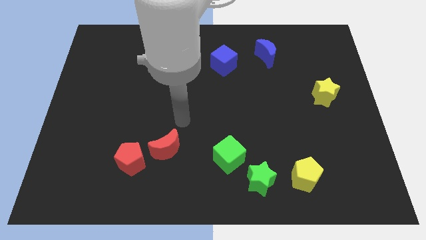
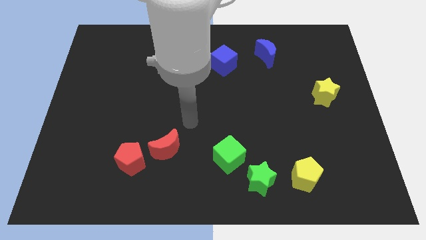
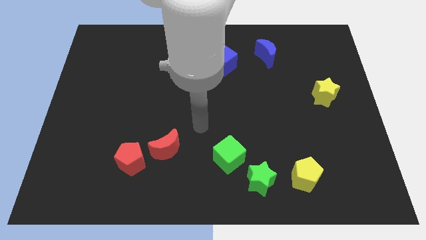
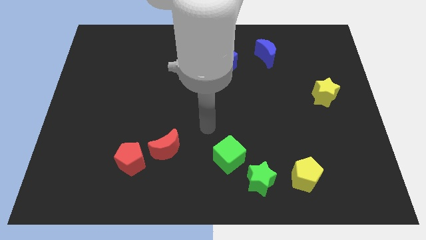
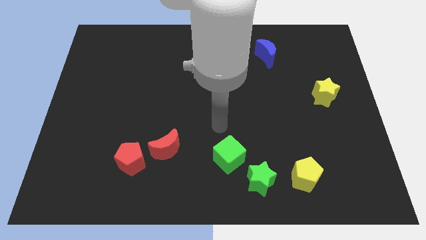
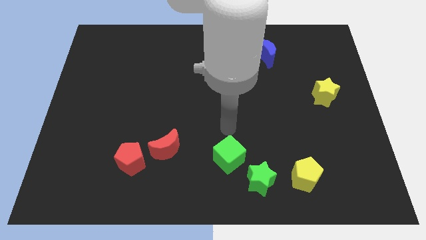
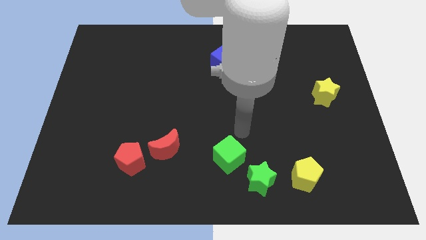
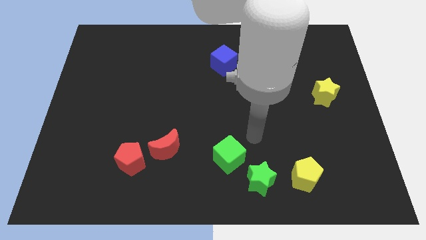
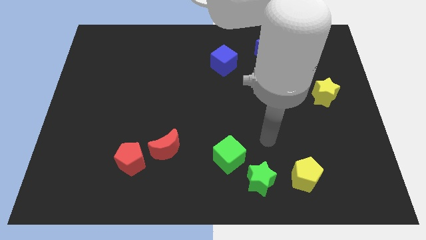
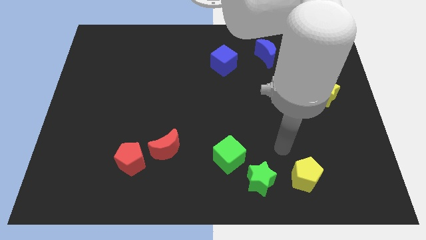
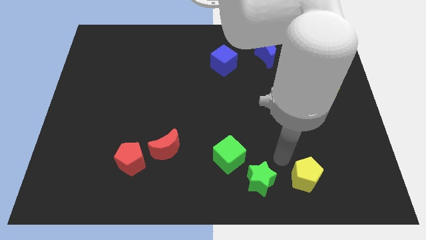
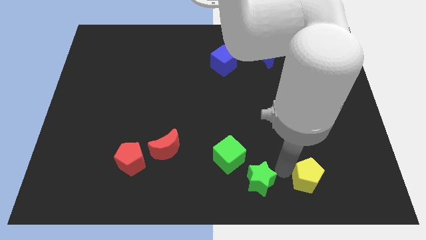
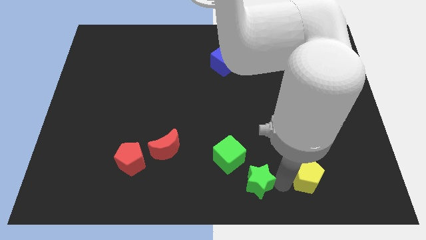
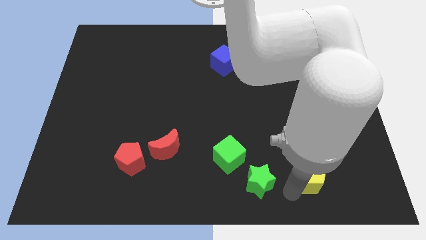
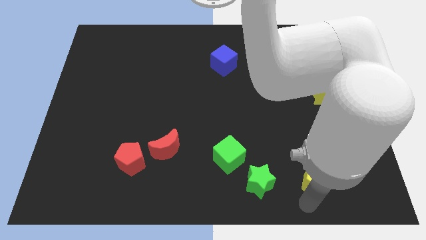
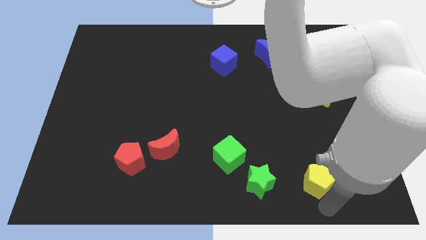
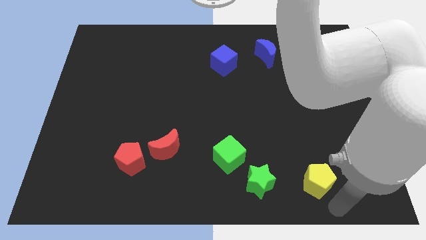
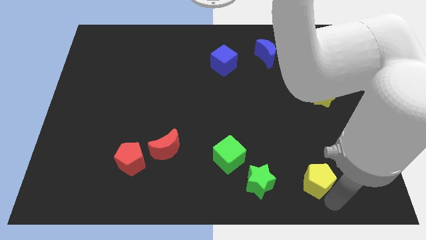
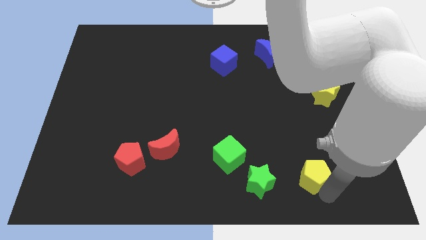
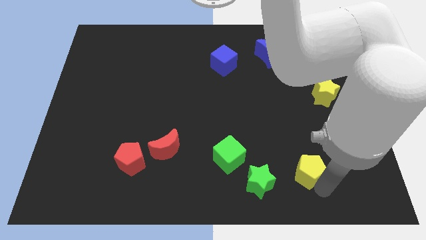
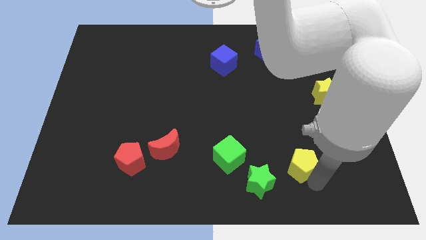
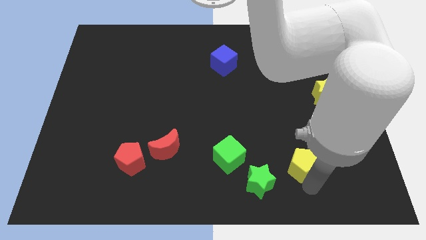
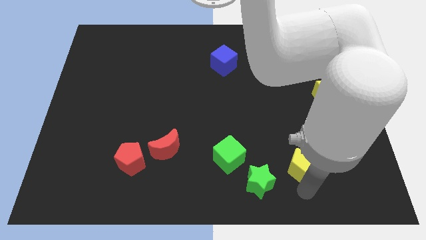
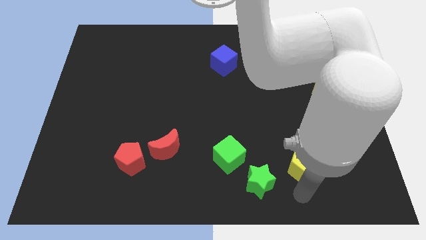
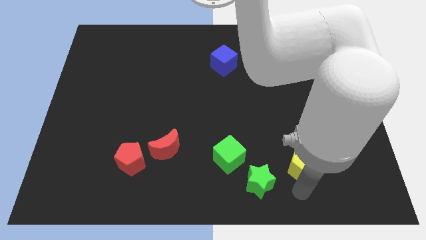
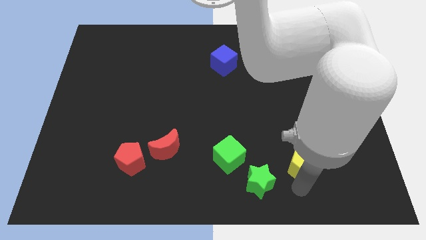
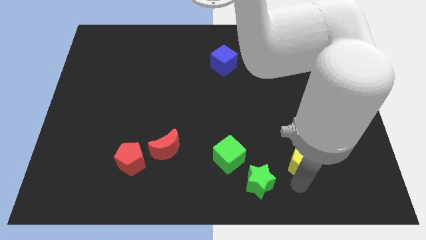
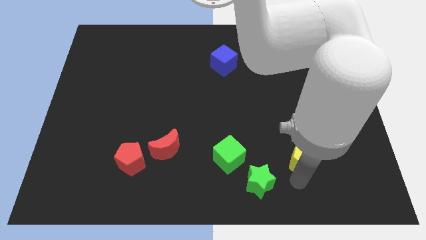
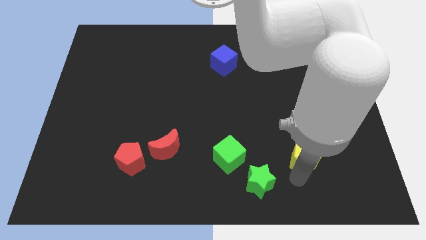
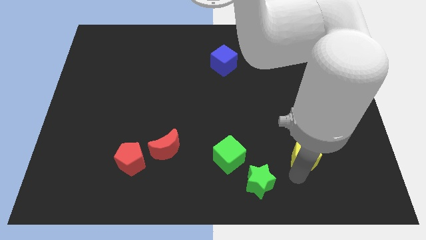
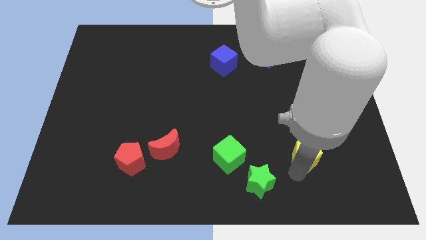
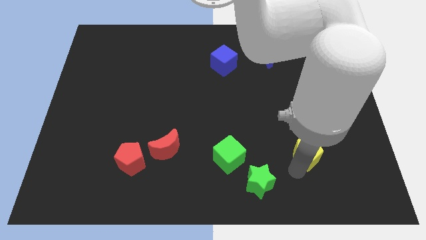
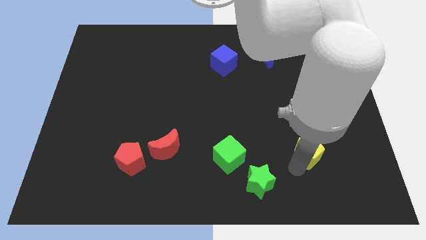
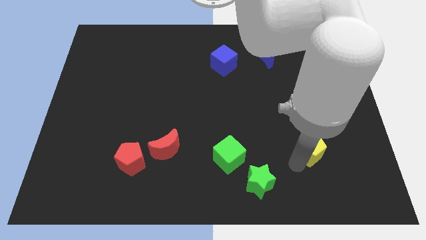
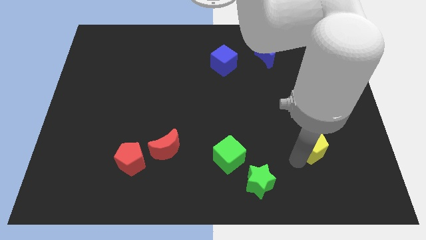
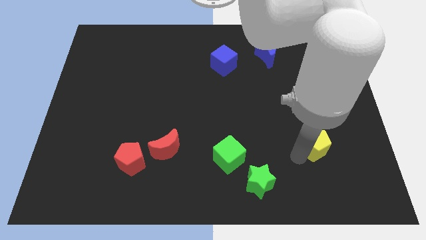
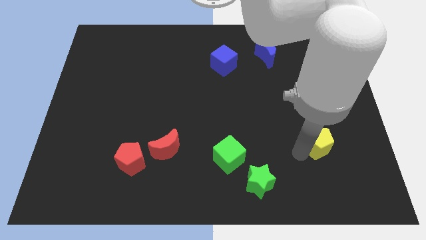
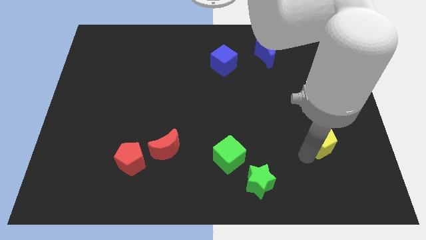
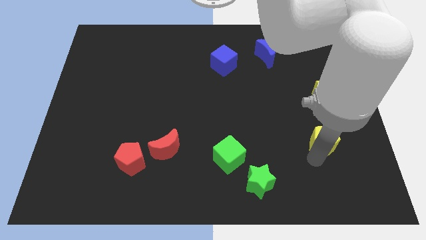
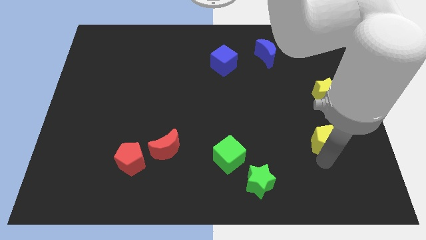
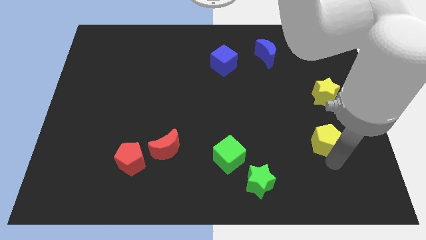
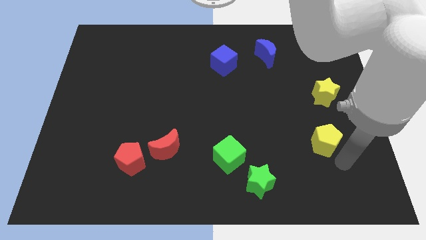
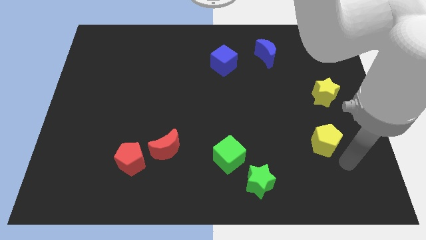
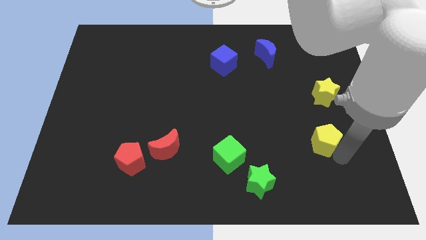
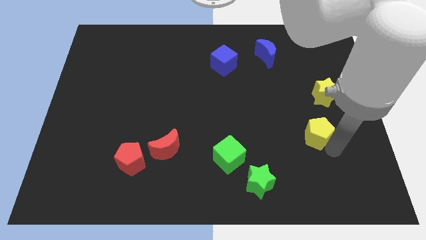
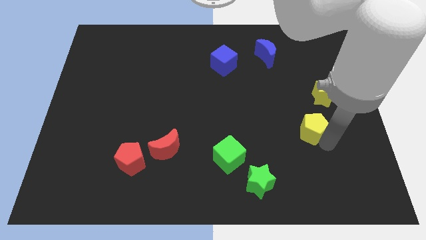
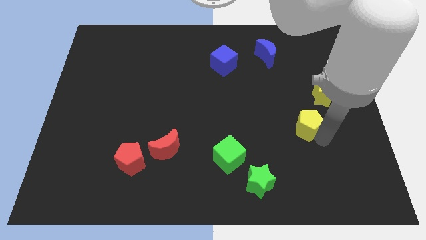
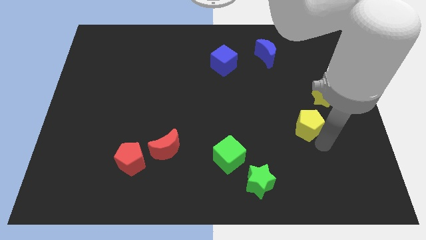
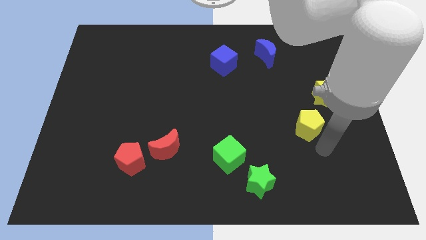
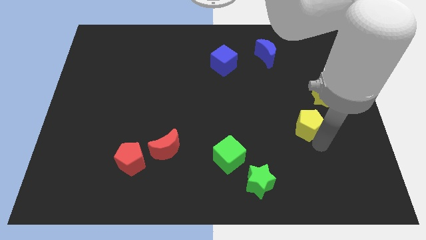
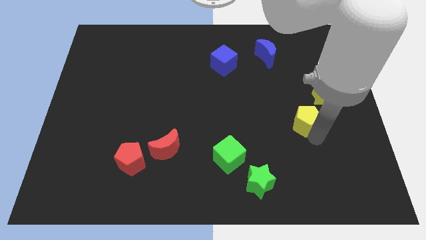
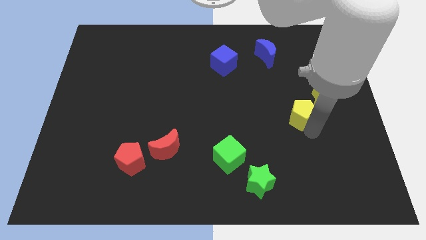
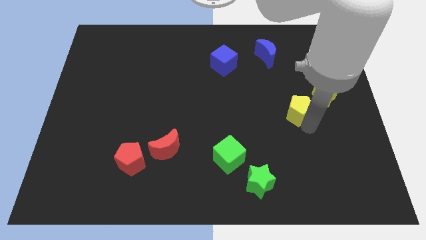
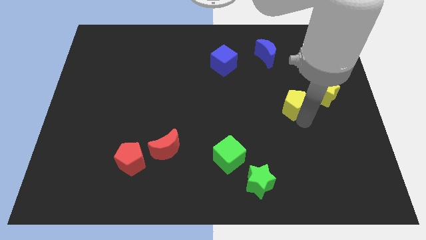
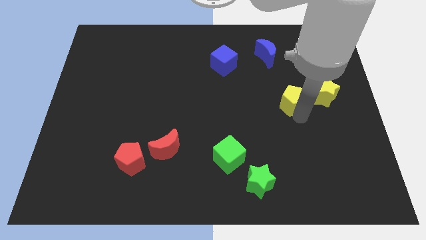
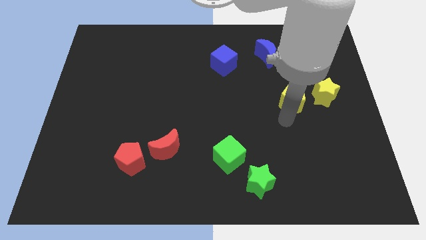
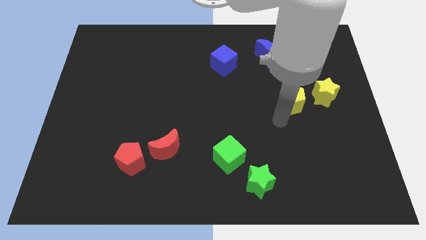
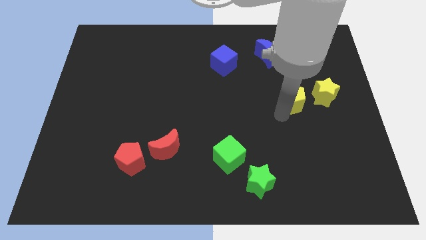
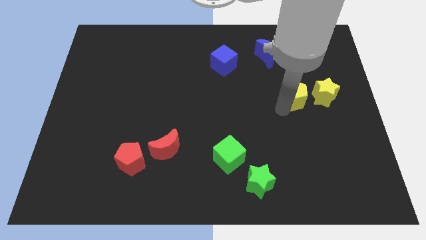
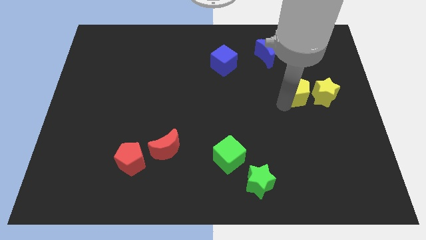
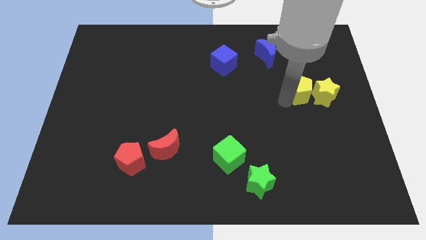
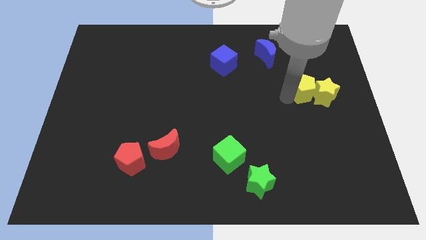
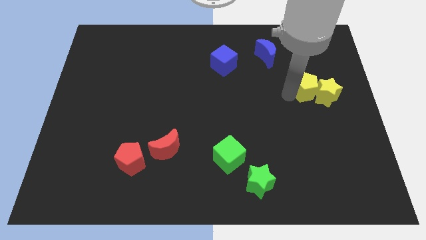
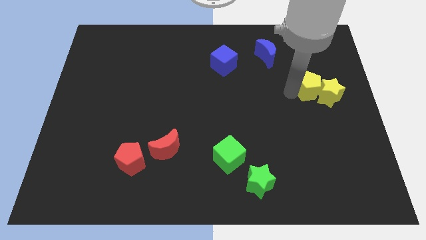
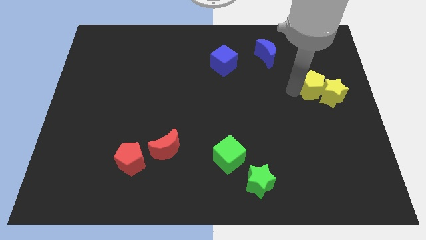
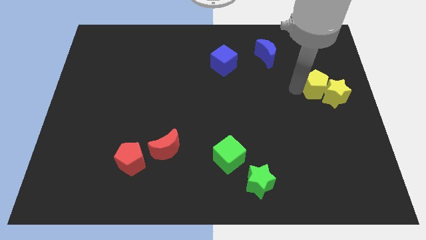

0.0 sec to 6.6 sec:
put the yellow pentagon above the yellow star

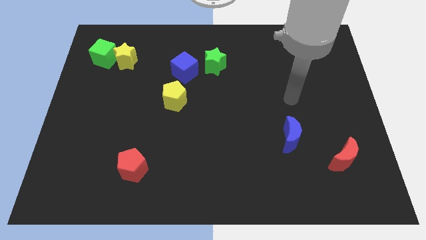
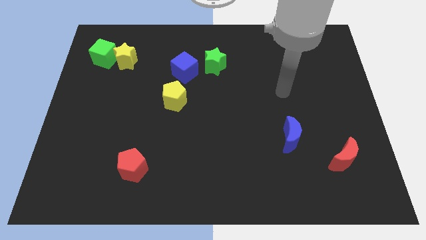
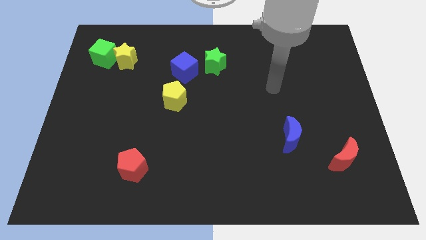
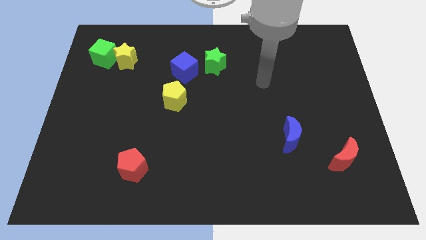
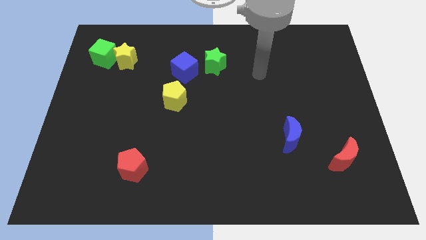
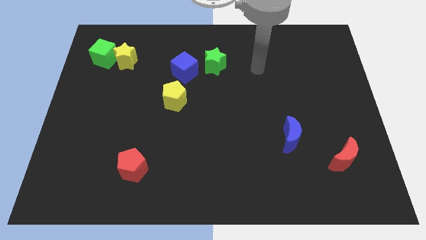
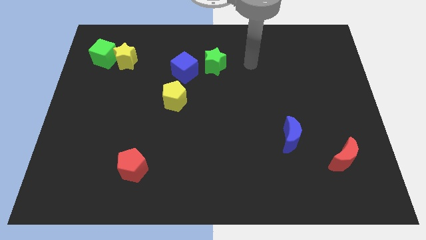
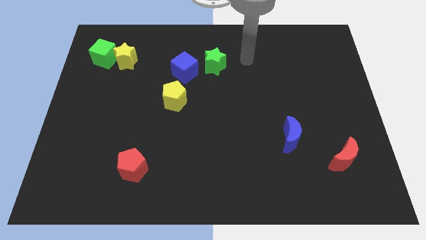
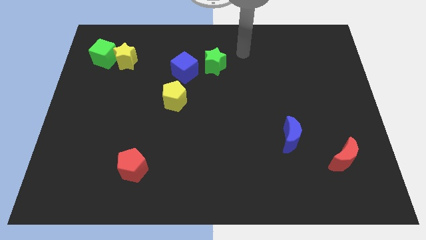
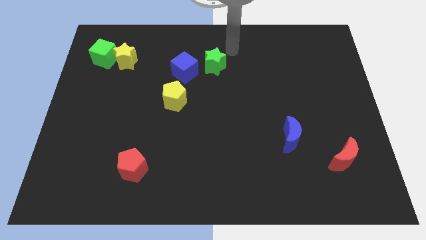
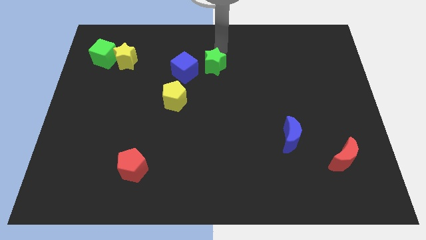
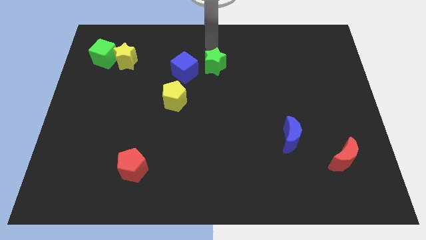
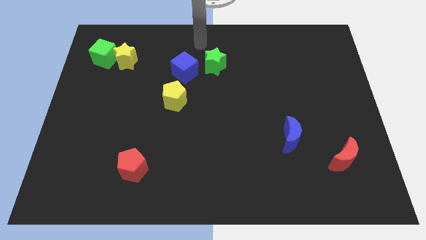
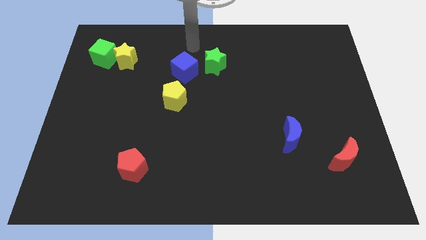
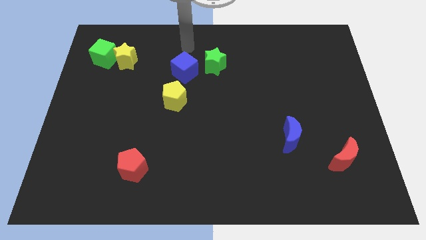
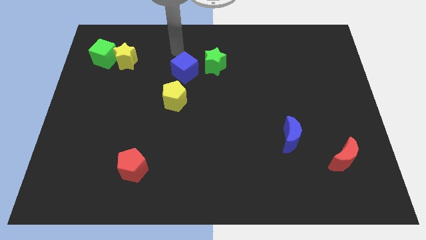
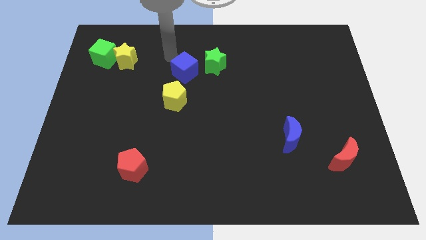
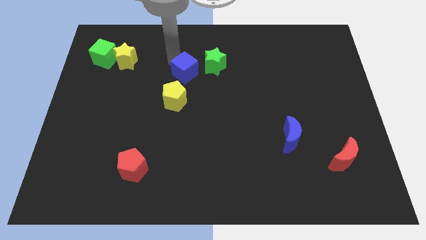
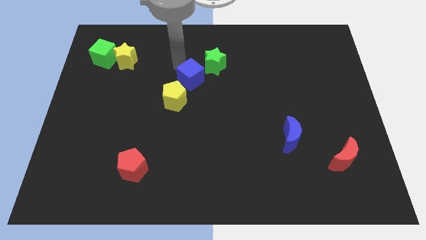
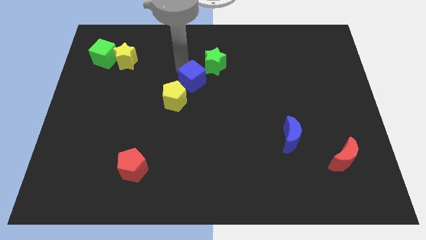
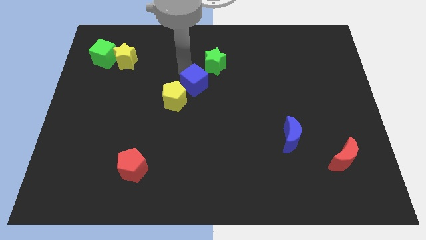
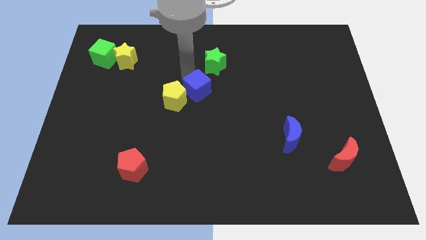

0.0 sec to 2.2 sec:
push the blue cube to the right side of the yellow pentagon
